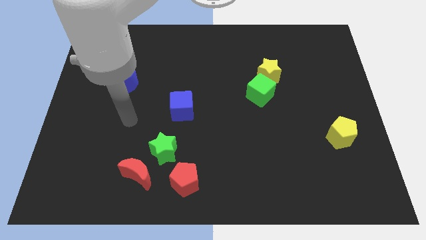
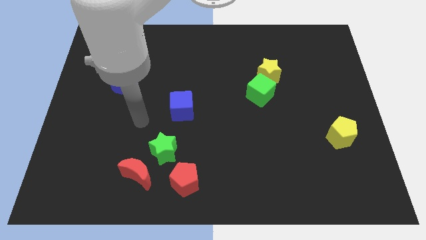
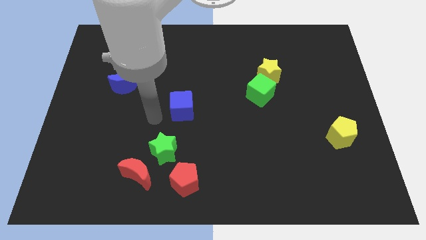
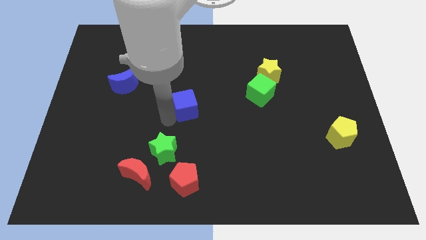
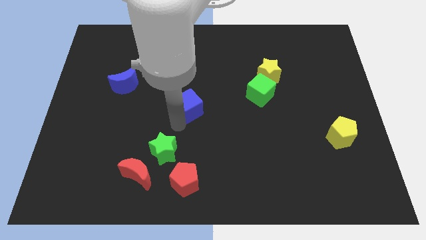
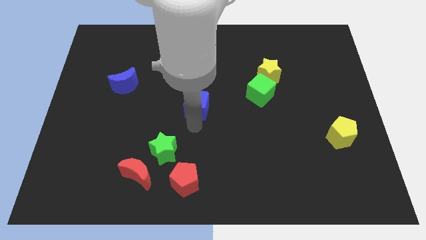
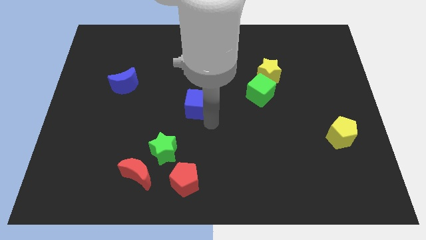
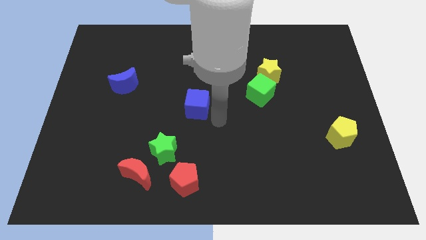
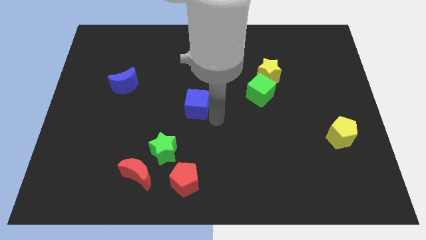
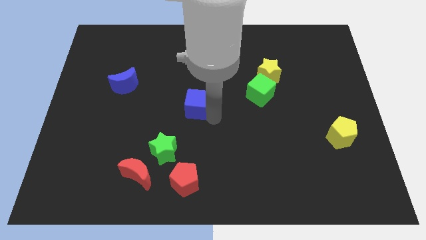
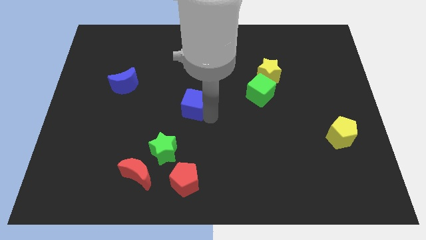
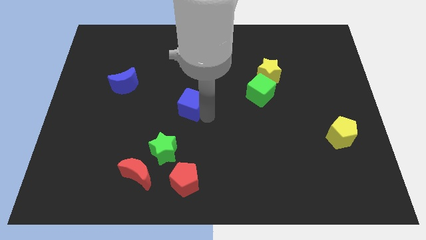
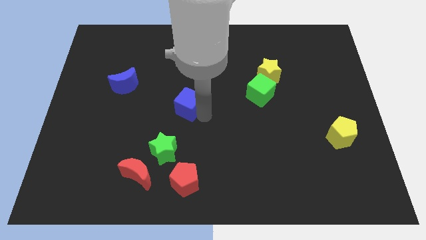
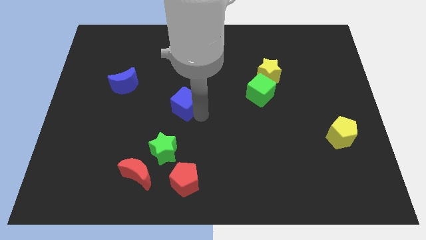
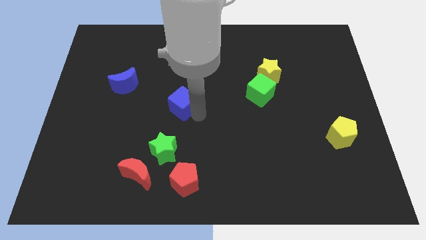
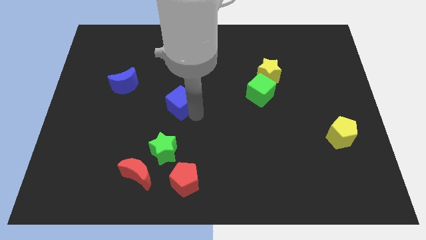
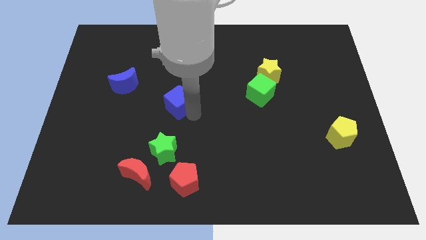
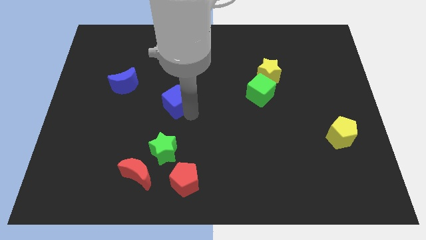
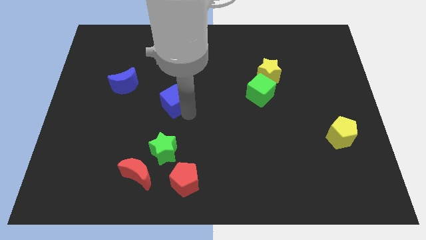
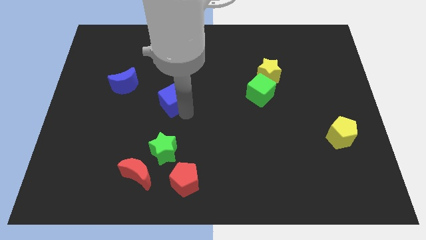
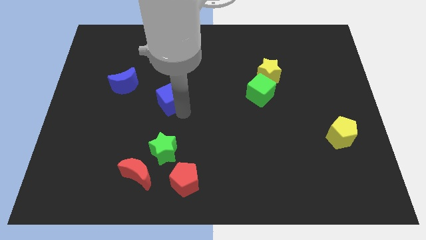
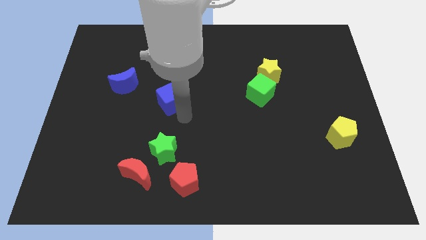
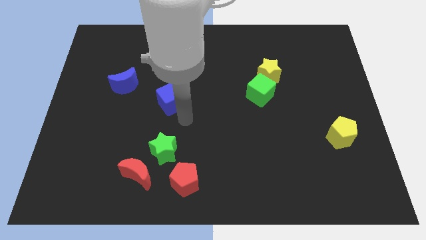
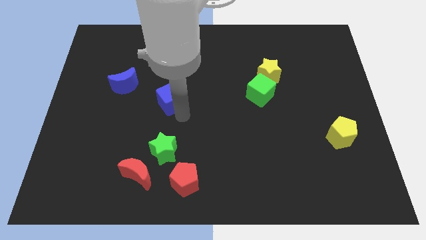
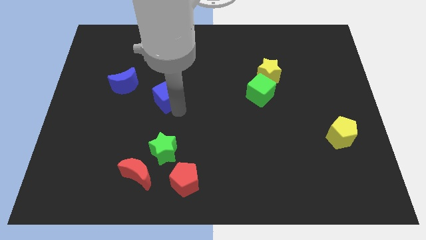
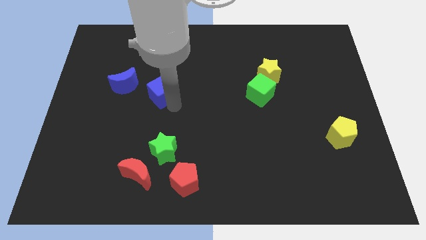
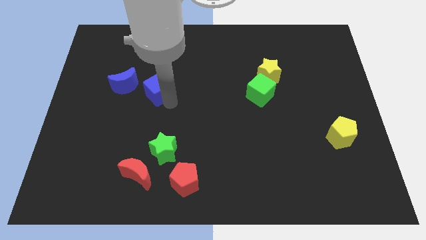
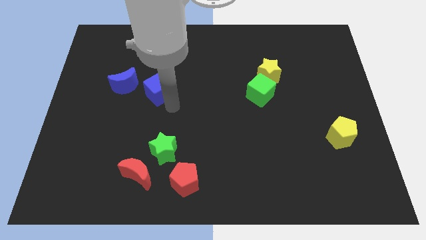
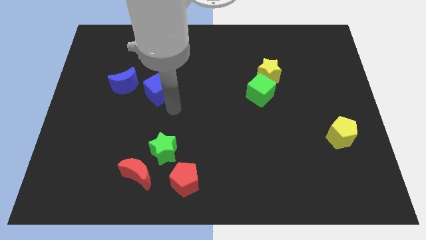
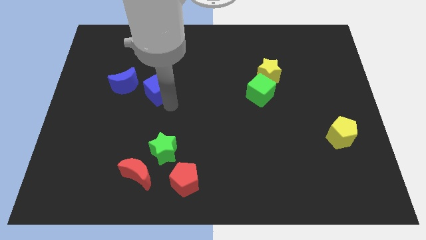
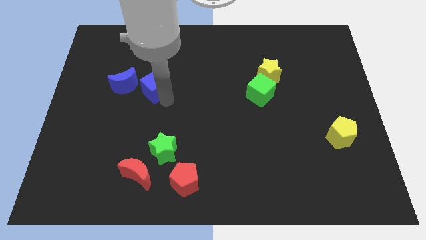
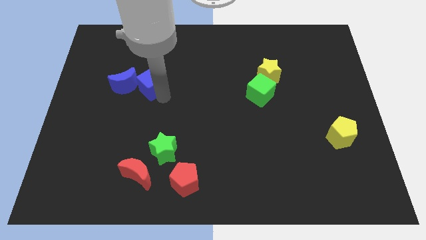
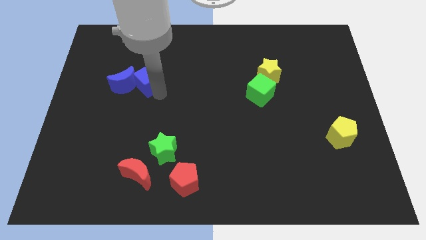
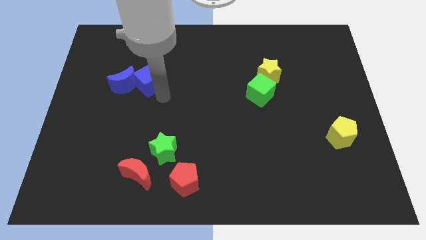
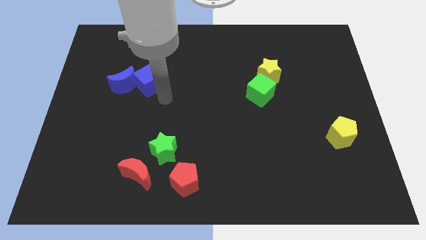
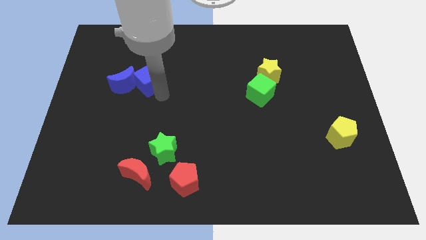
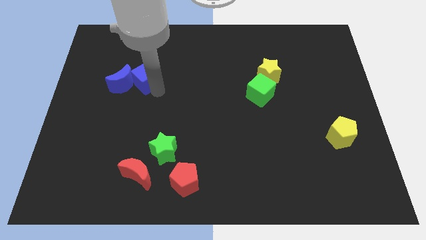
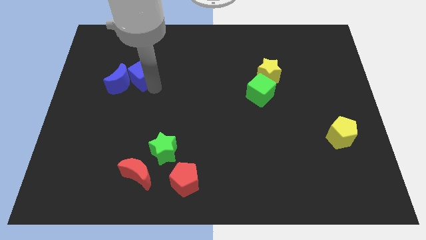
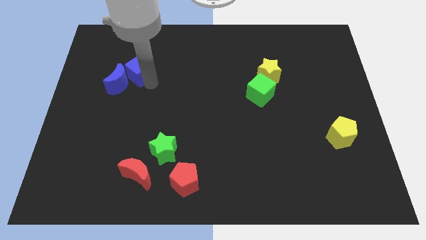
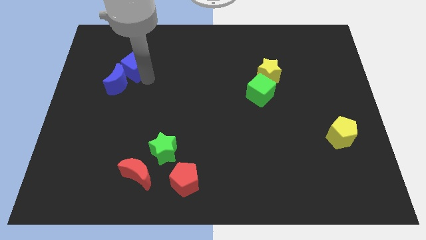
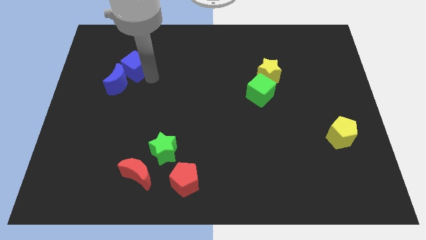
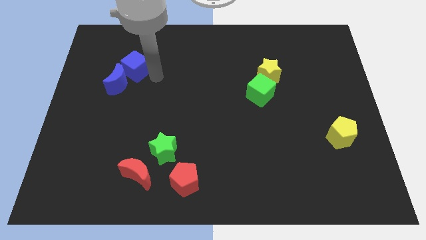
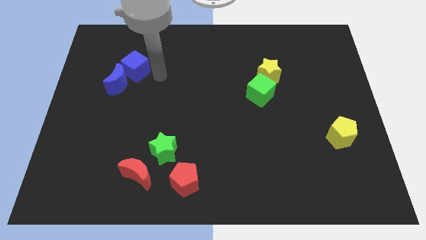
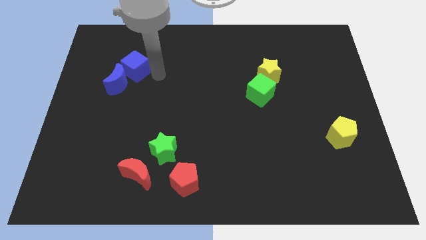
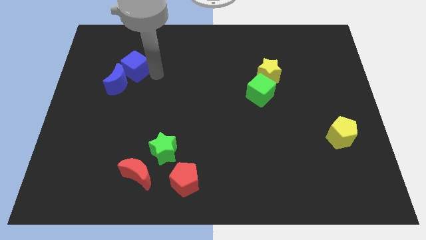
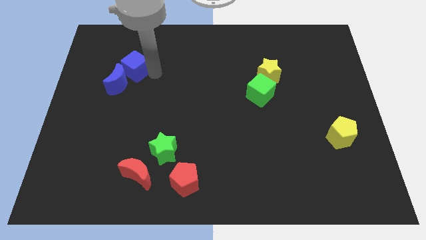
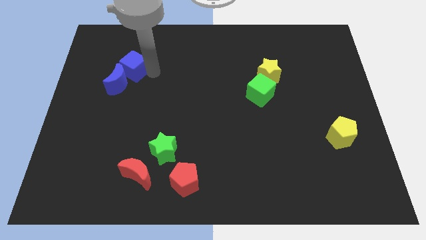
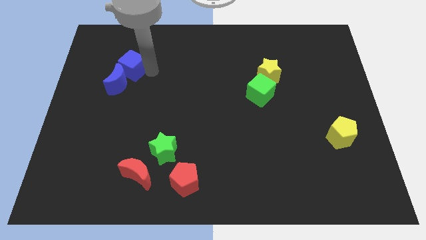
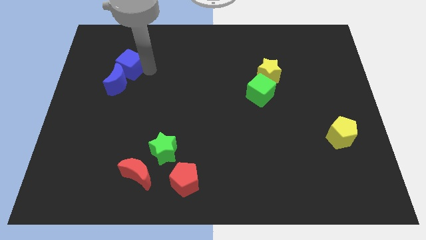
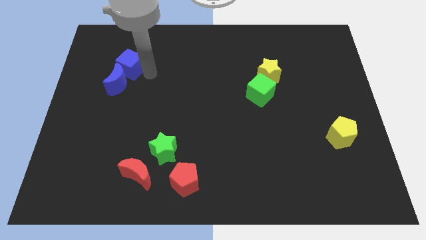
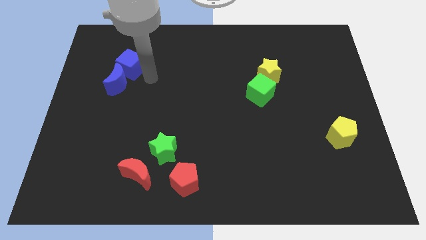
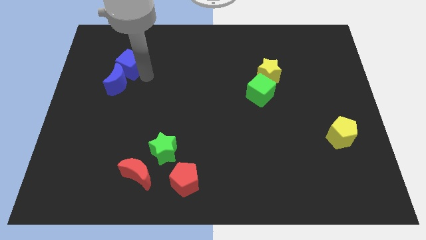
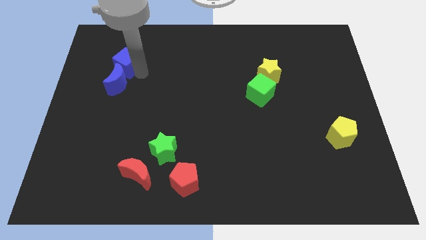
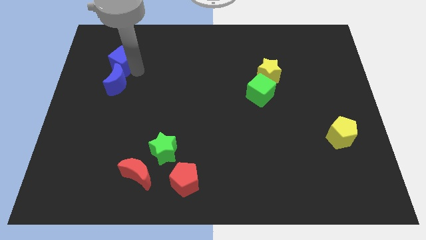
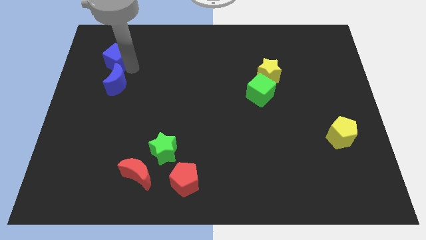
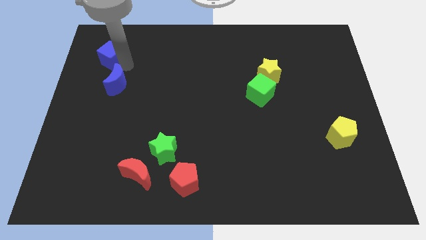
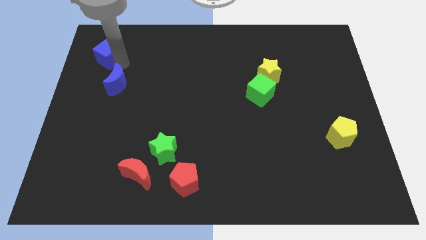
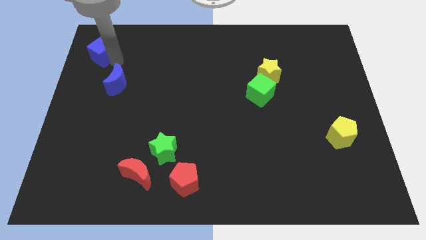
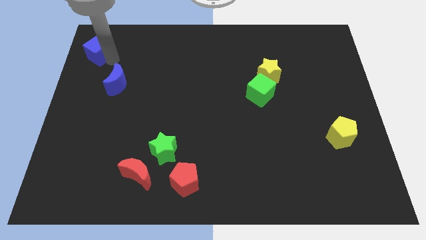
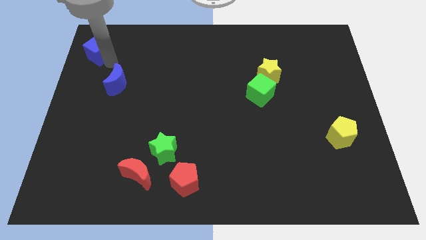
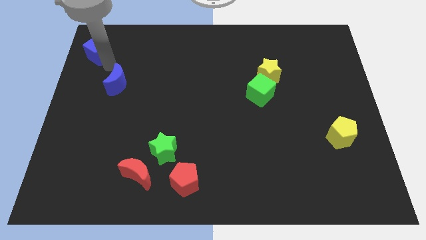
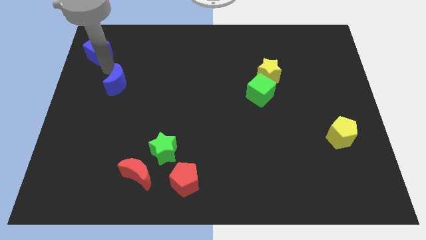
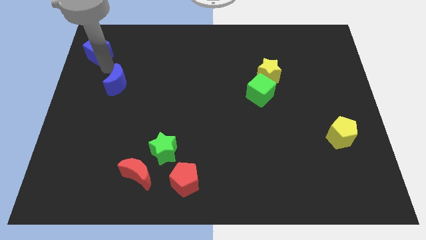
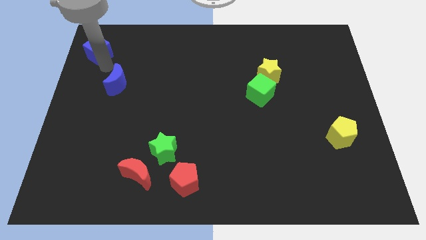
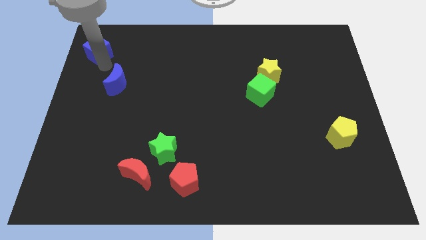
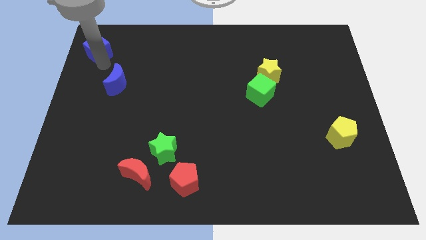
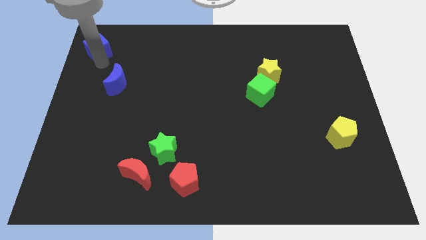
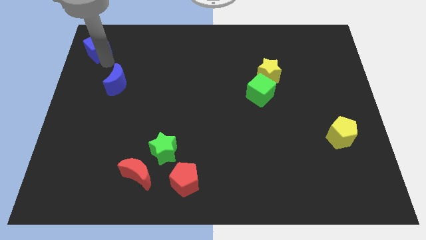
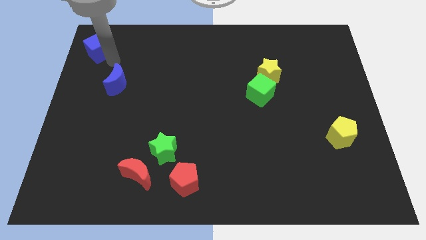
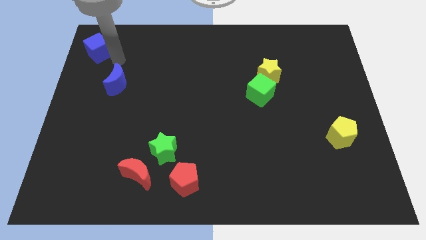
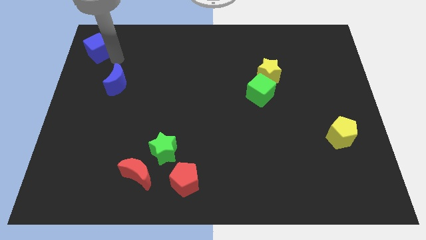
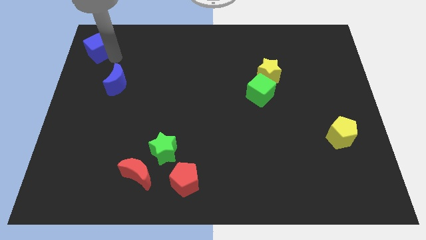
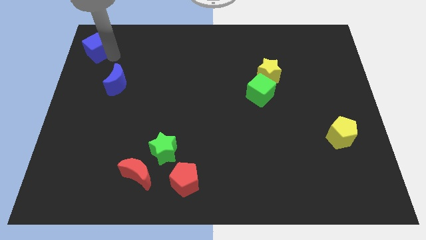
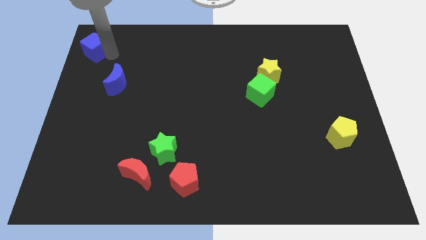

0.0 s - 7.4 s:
push the blue cube to the top left corner
